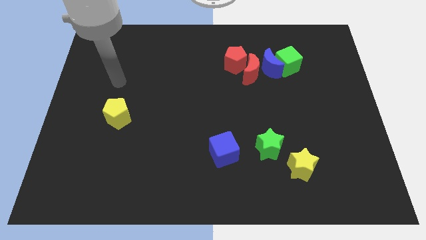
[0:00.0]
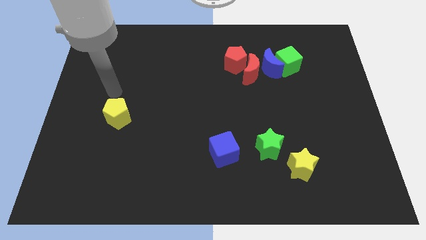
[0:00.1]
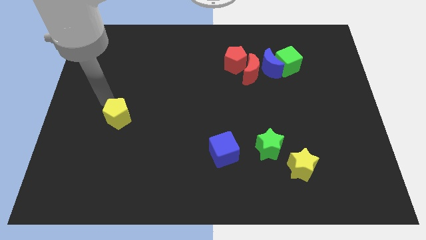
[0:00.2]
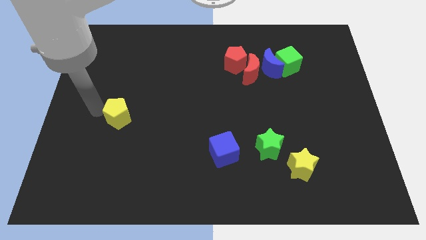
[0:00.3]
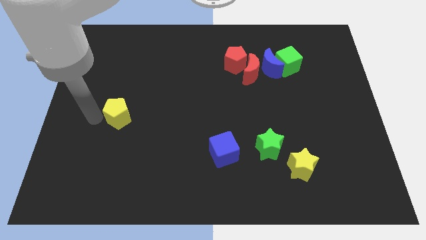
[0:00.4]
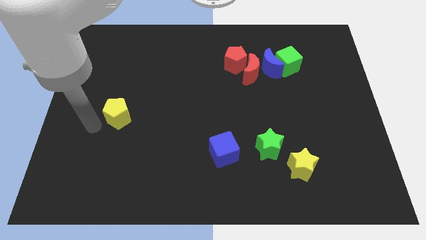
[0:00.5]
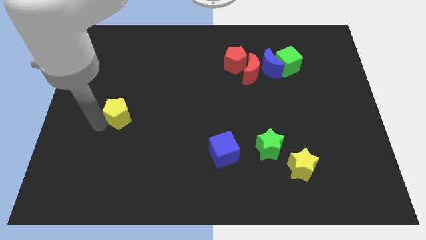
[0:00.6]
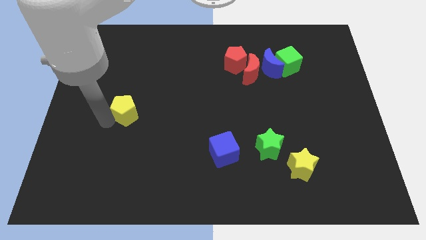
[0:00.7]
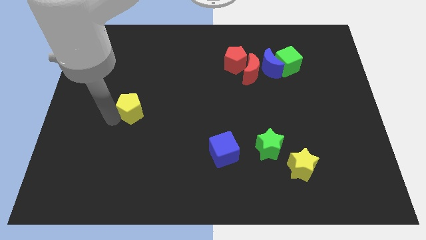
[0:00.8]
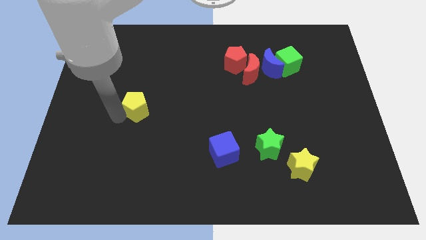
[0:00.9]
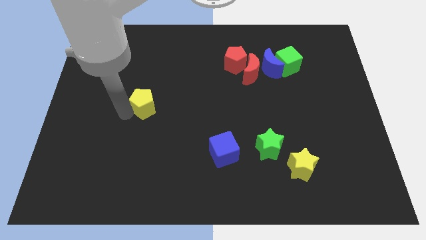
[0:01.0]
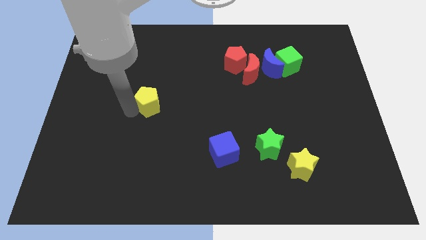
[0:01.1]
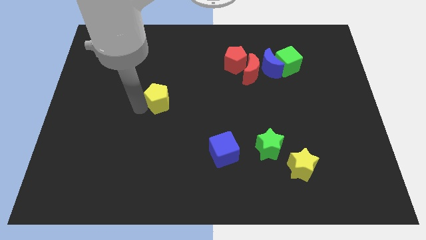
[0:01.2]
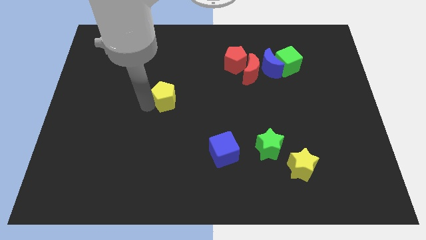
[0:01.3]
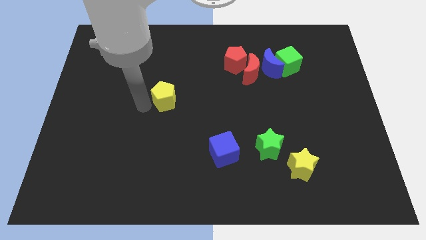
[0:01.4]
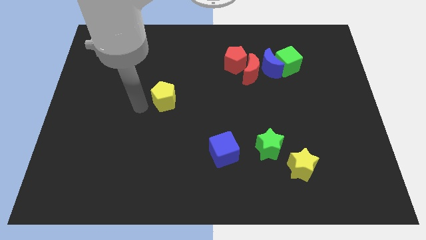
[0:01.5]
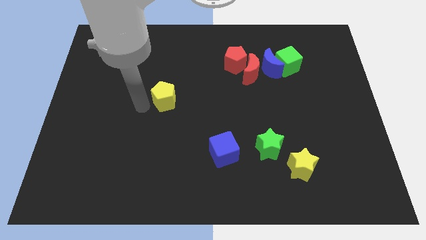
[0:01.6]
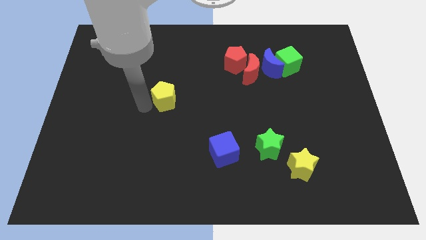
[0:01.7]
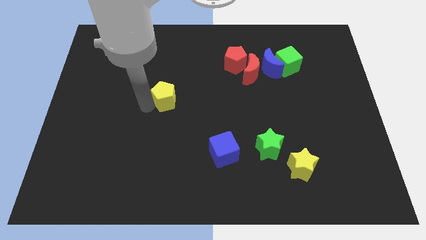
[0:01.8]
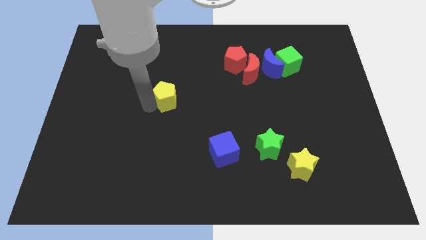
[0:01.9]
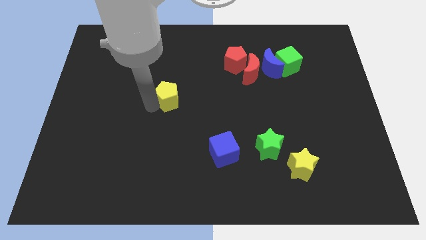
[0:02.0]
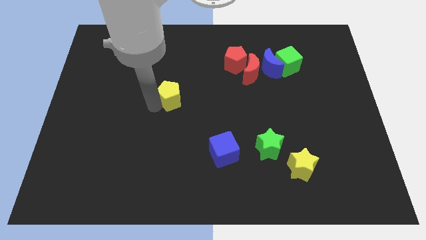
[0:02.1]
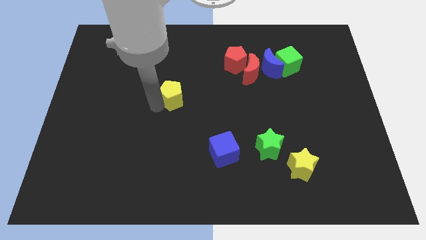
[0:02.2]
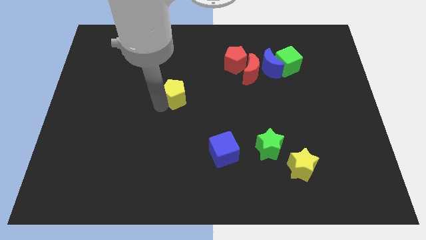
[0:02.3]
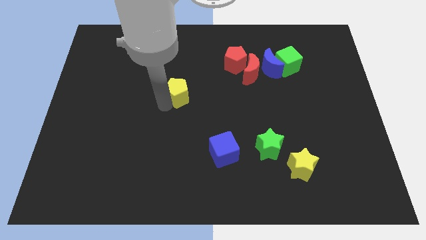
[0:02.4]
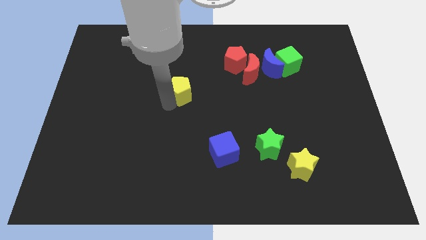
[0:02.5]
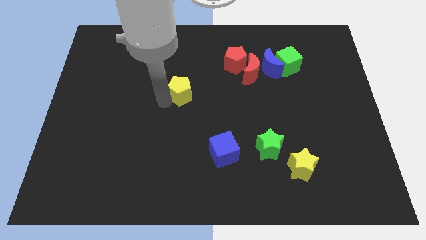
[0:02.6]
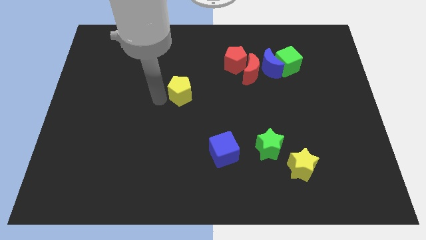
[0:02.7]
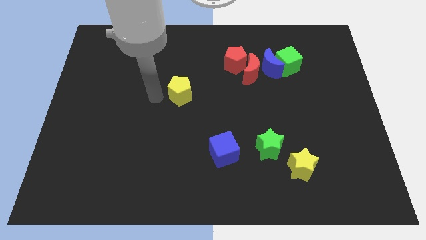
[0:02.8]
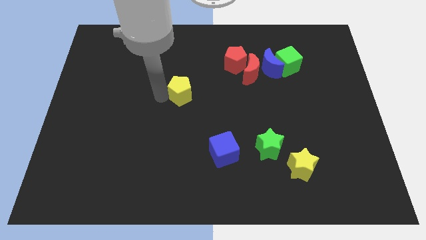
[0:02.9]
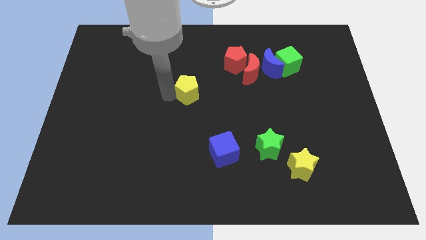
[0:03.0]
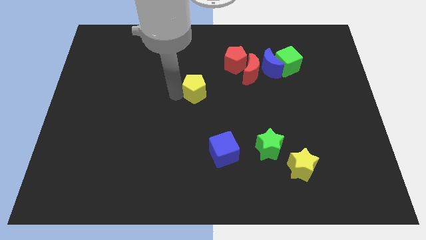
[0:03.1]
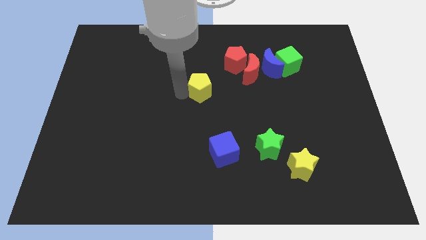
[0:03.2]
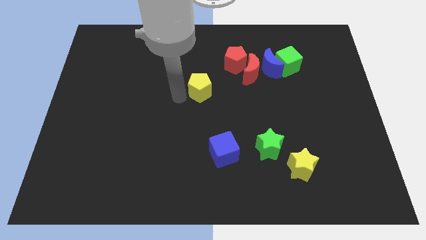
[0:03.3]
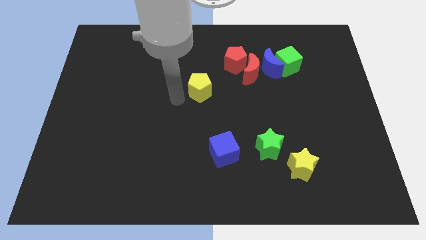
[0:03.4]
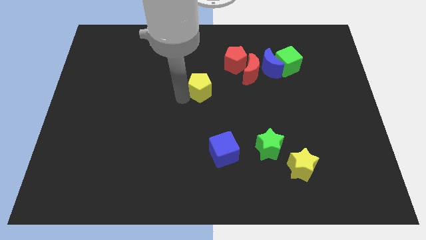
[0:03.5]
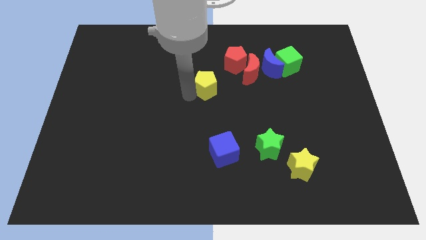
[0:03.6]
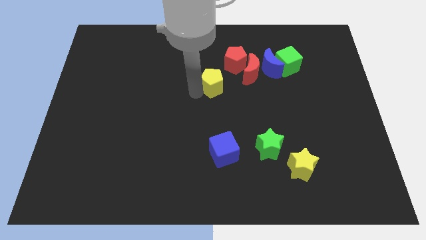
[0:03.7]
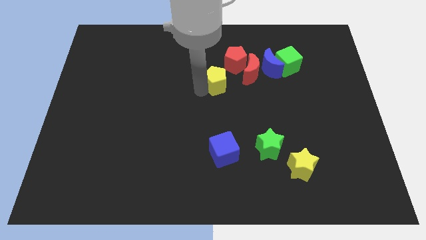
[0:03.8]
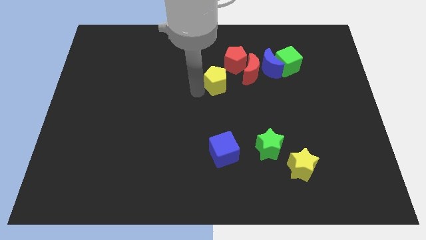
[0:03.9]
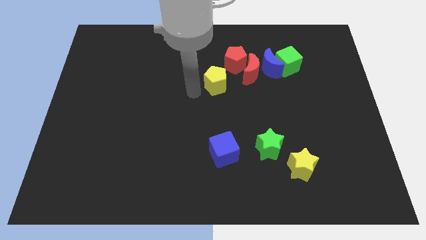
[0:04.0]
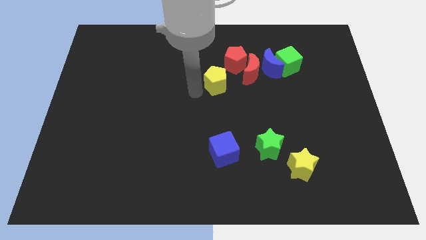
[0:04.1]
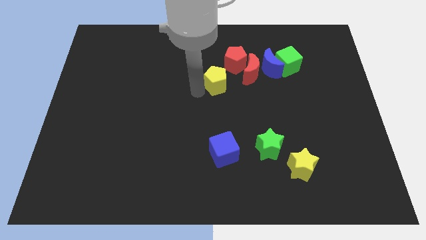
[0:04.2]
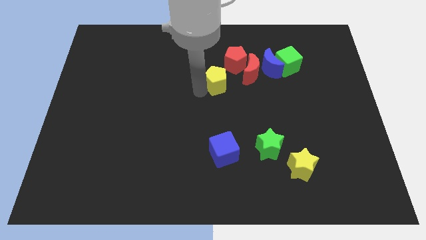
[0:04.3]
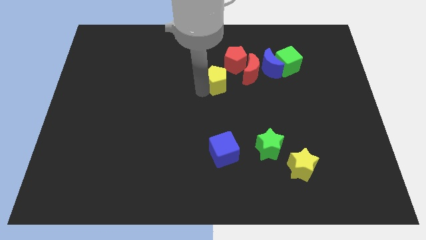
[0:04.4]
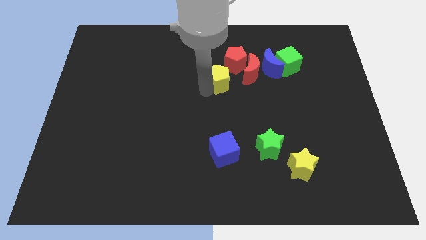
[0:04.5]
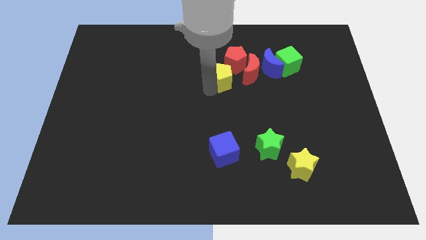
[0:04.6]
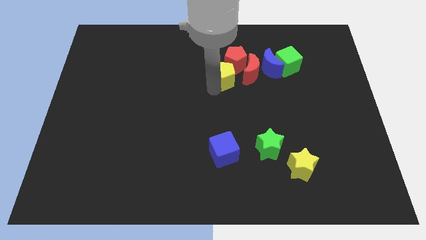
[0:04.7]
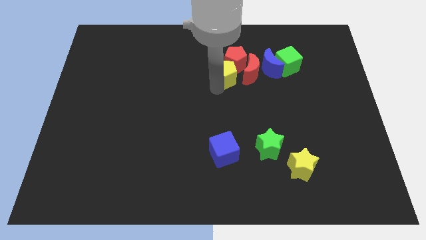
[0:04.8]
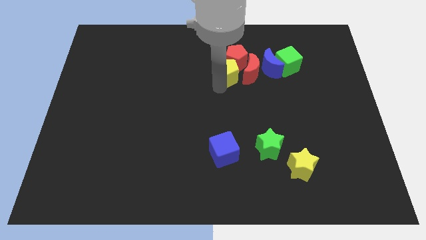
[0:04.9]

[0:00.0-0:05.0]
push the yellow pentagon next to the red moon

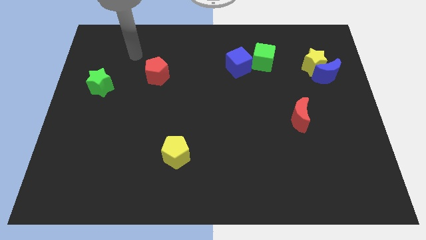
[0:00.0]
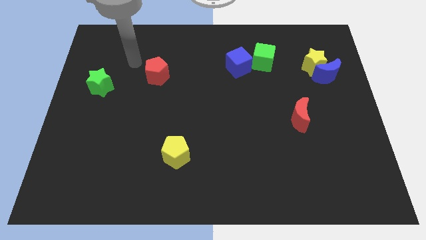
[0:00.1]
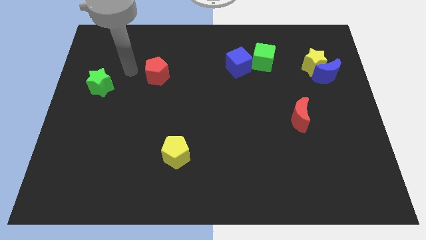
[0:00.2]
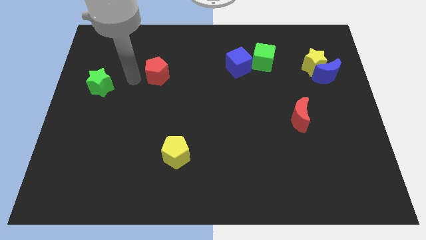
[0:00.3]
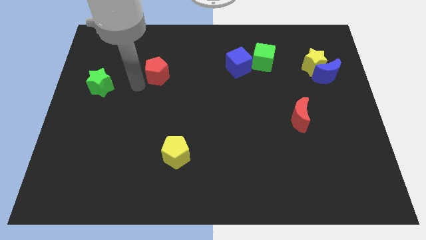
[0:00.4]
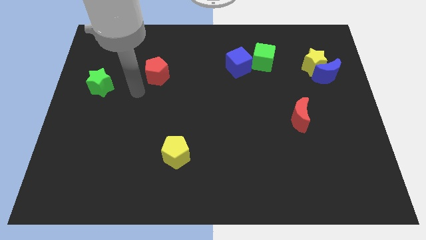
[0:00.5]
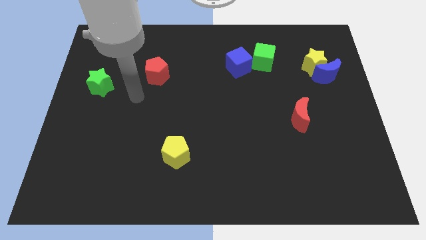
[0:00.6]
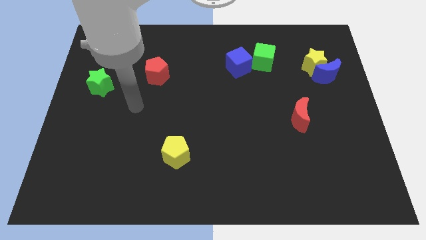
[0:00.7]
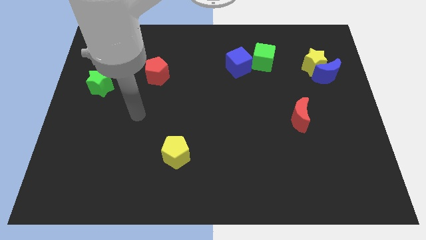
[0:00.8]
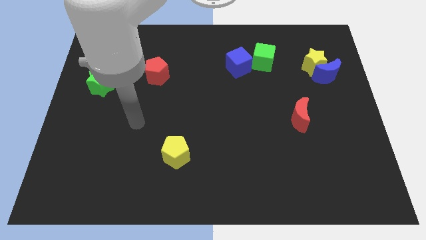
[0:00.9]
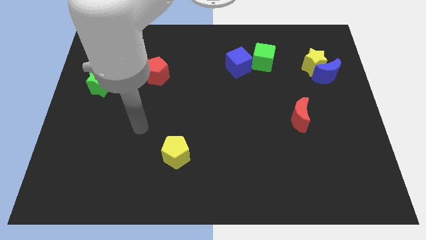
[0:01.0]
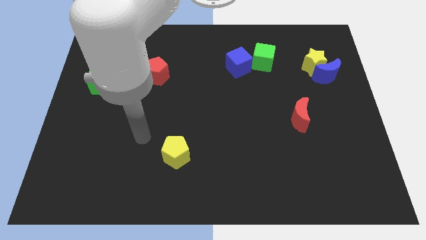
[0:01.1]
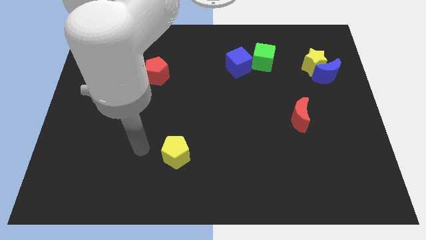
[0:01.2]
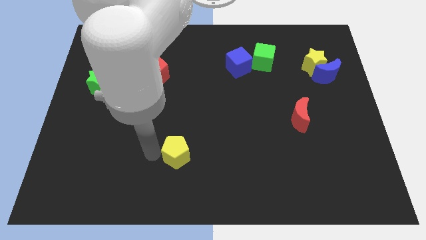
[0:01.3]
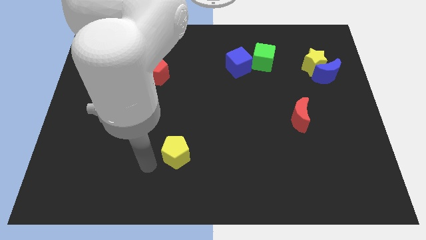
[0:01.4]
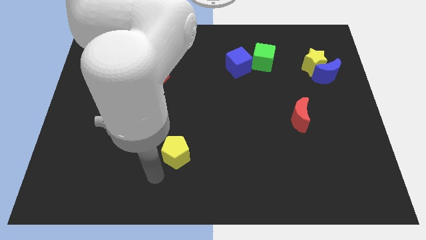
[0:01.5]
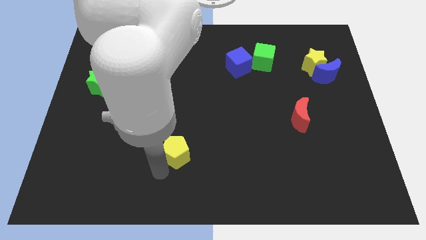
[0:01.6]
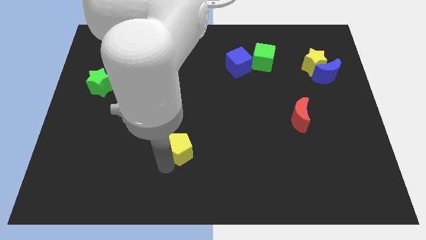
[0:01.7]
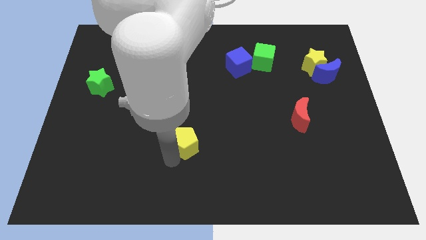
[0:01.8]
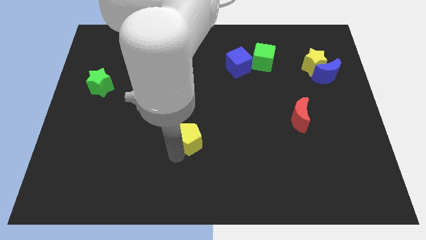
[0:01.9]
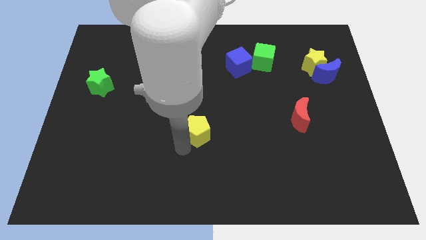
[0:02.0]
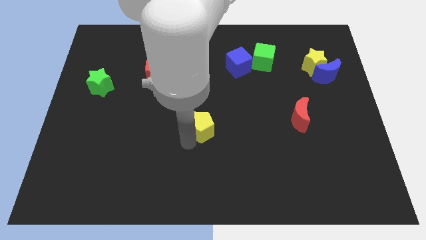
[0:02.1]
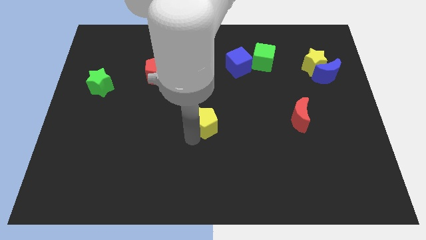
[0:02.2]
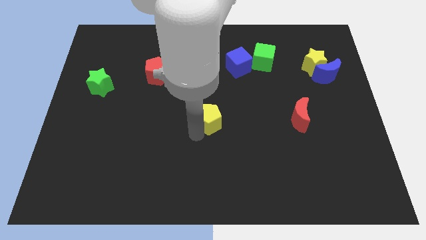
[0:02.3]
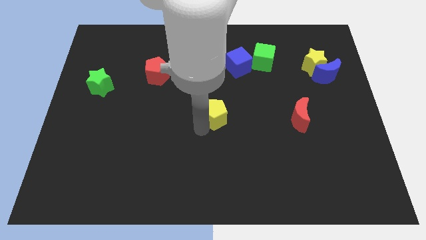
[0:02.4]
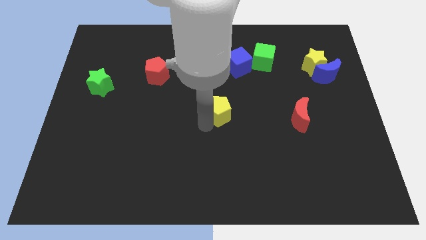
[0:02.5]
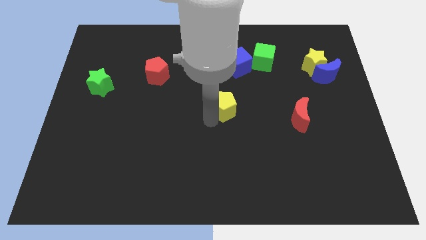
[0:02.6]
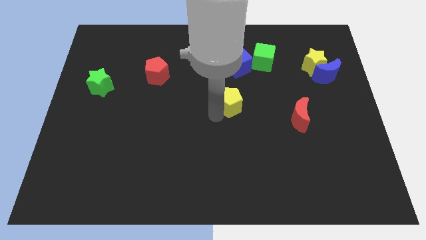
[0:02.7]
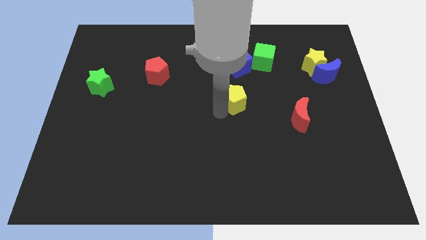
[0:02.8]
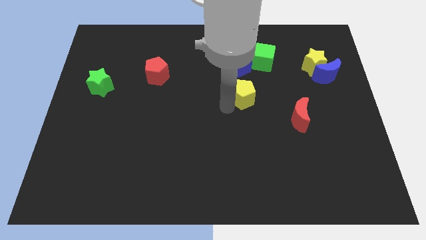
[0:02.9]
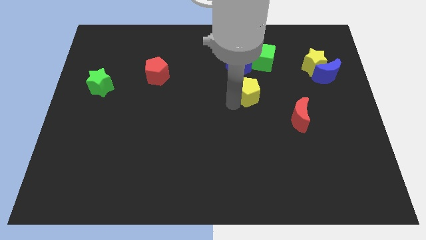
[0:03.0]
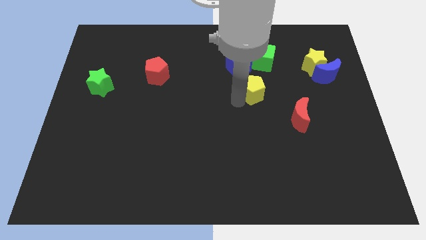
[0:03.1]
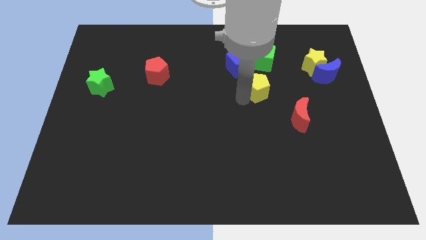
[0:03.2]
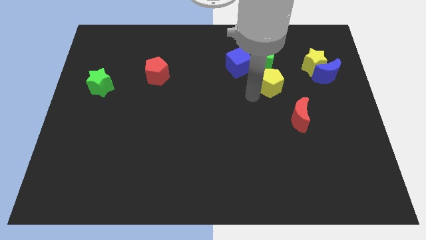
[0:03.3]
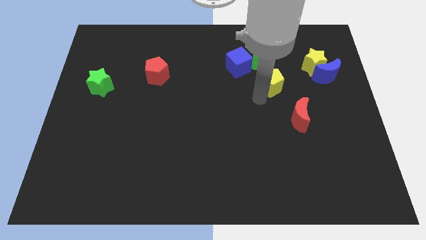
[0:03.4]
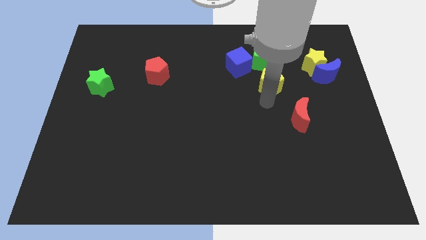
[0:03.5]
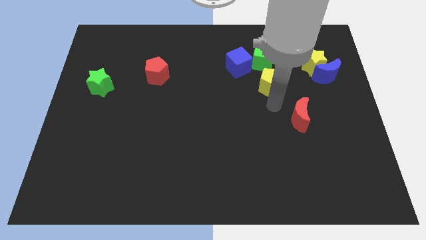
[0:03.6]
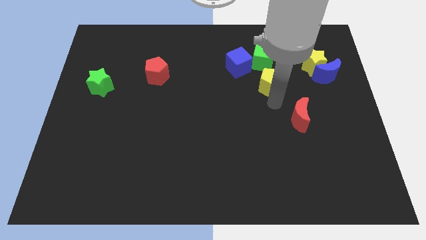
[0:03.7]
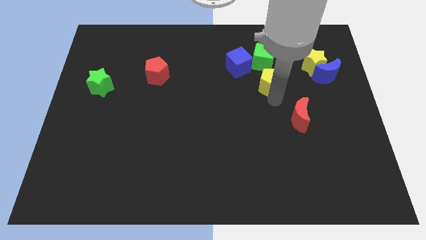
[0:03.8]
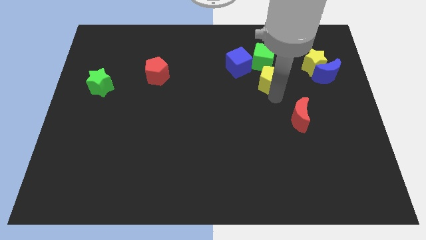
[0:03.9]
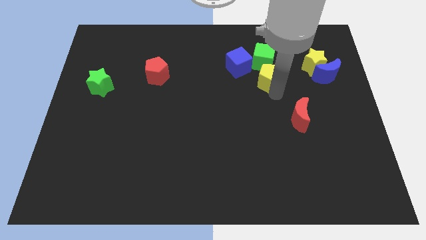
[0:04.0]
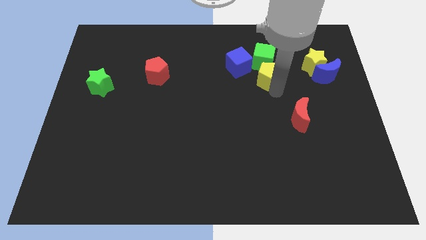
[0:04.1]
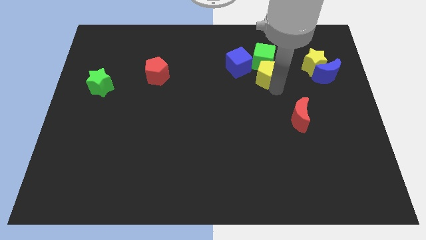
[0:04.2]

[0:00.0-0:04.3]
put the yellow pentagon towards the green cube
